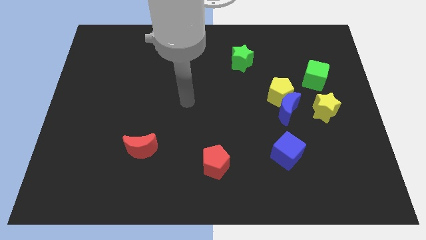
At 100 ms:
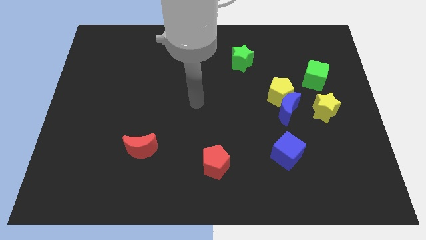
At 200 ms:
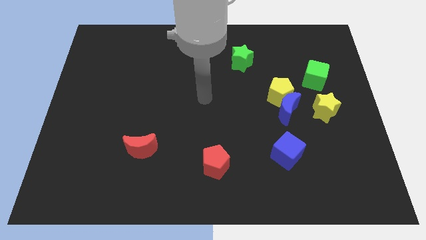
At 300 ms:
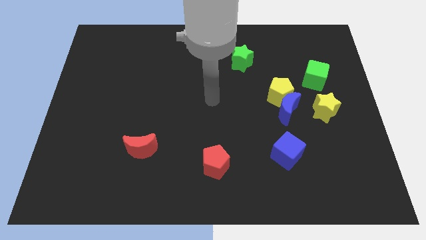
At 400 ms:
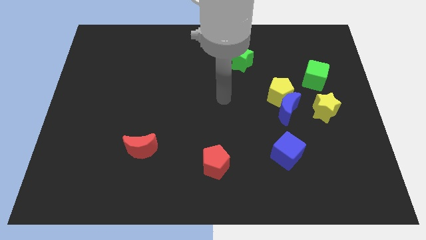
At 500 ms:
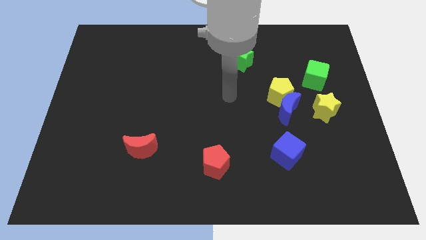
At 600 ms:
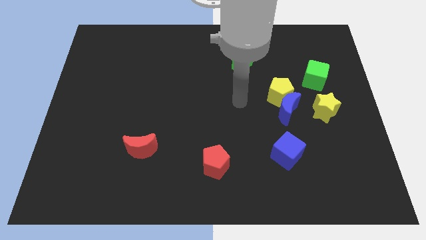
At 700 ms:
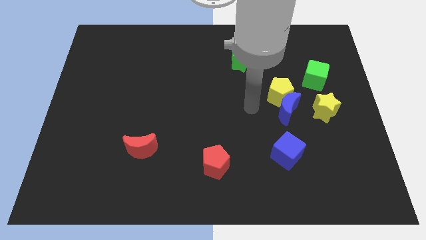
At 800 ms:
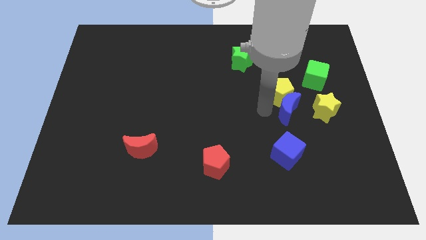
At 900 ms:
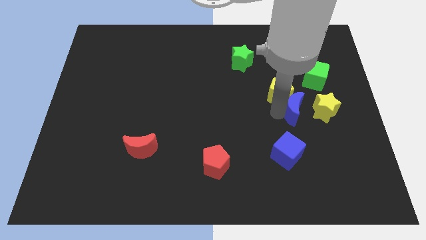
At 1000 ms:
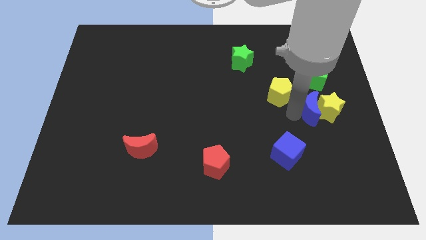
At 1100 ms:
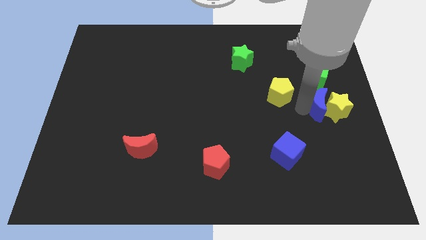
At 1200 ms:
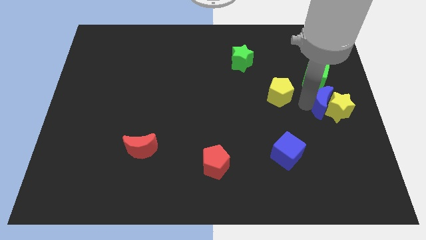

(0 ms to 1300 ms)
separate the yellow pentagon from the blue moon

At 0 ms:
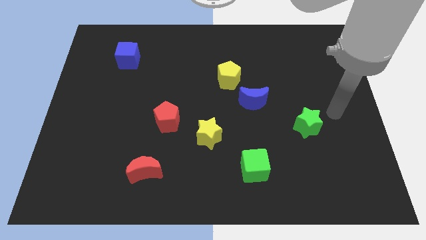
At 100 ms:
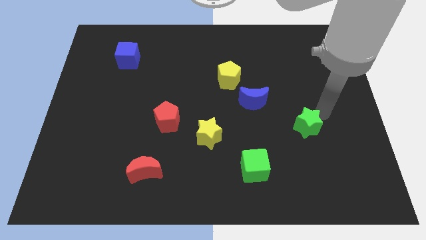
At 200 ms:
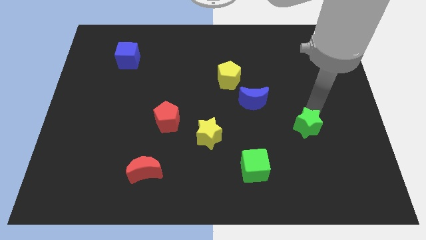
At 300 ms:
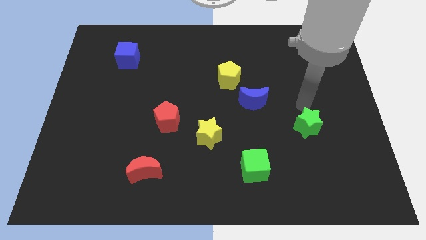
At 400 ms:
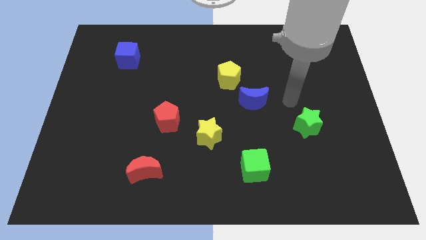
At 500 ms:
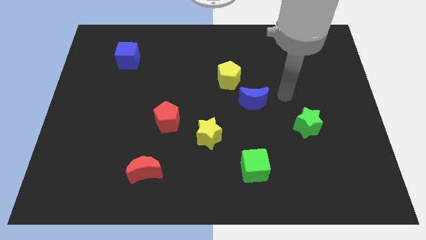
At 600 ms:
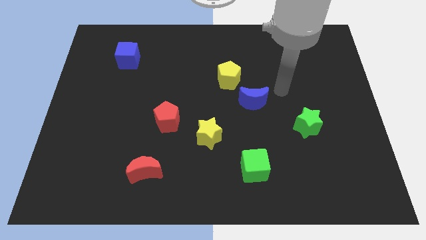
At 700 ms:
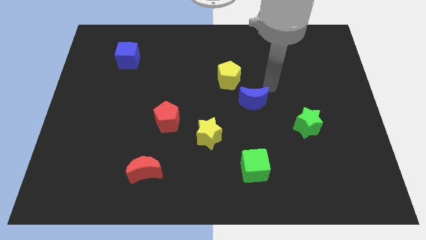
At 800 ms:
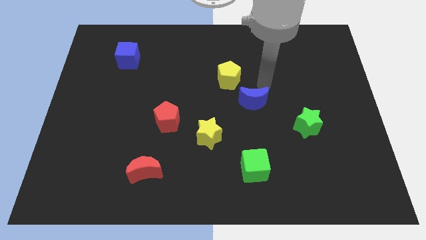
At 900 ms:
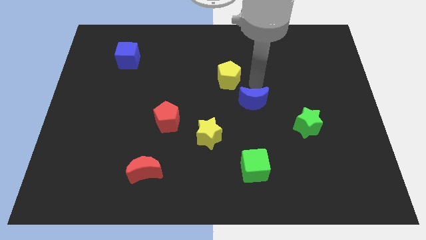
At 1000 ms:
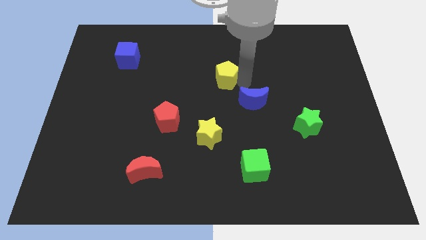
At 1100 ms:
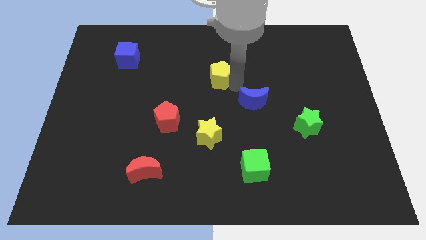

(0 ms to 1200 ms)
pull the blue moon apart from the yellow pentagon

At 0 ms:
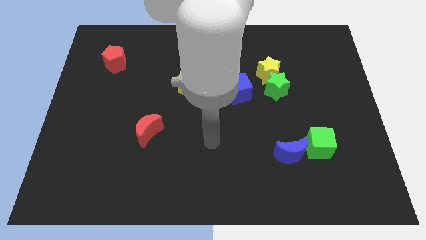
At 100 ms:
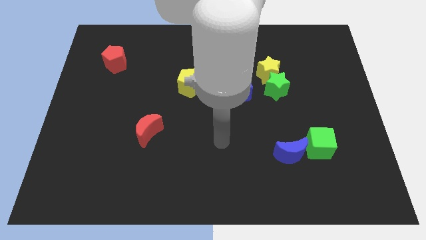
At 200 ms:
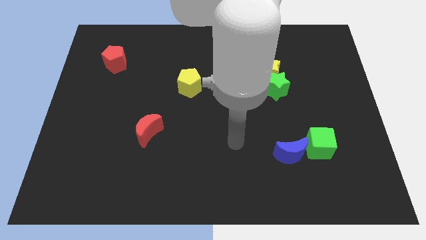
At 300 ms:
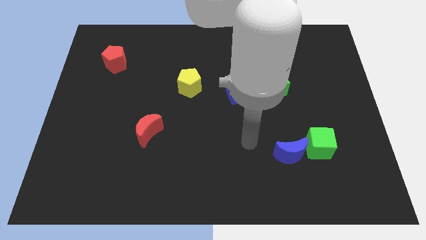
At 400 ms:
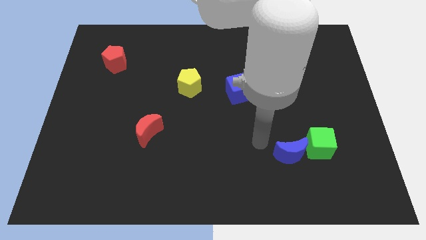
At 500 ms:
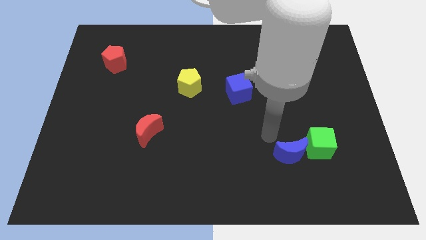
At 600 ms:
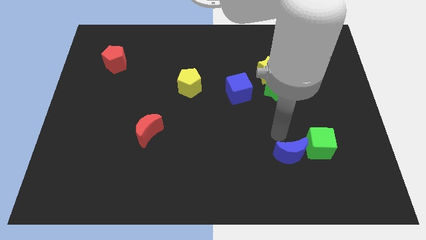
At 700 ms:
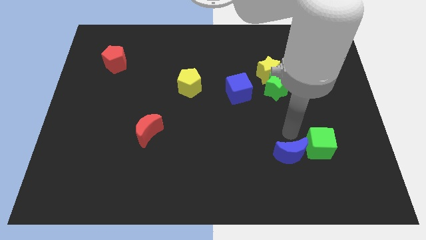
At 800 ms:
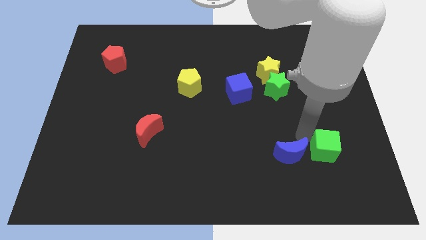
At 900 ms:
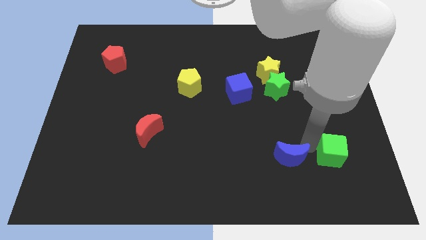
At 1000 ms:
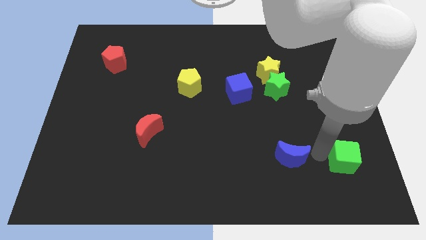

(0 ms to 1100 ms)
pull the blue moon apart from the green cube

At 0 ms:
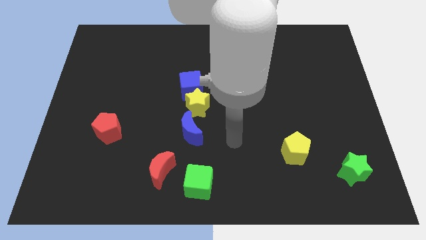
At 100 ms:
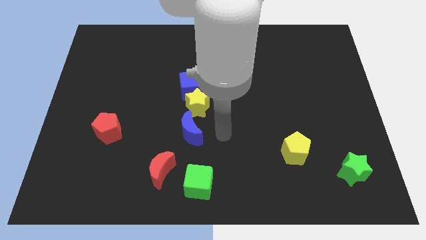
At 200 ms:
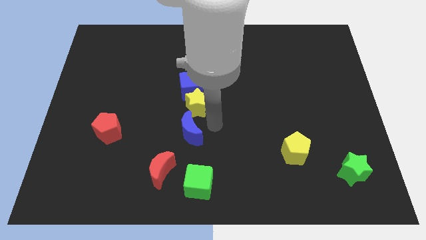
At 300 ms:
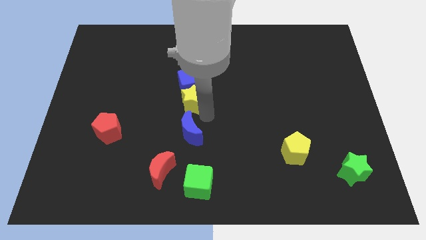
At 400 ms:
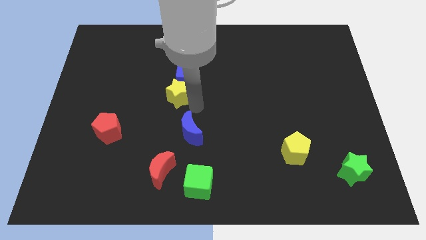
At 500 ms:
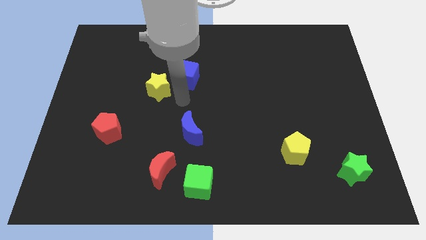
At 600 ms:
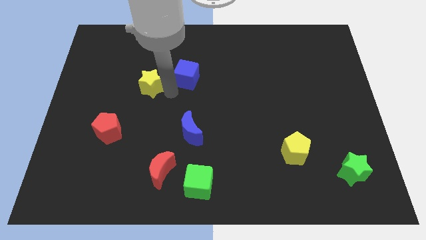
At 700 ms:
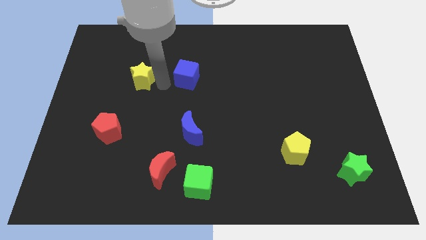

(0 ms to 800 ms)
pull the blue cube apart from the yellow star

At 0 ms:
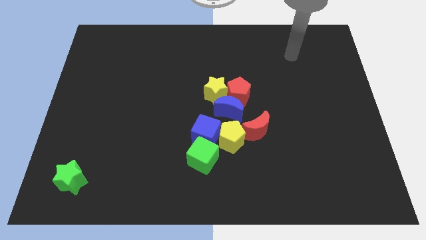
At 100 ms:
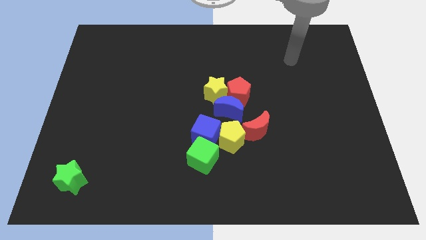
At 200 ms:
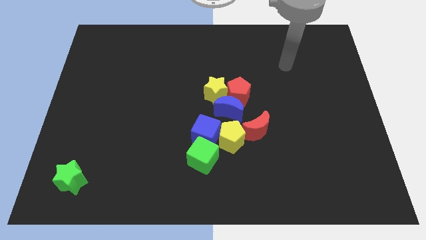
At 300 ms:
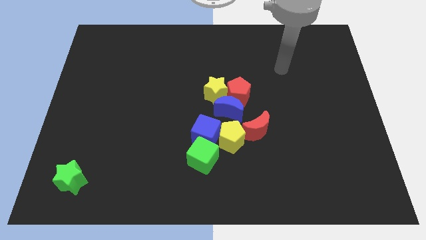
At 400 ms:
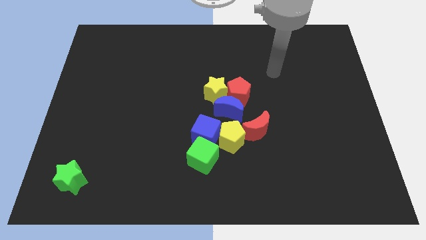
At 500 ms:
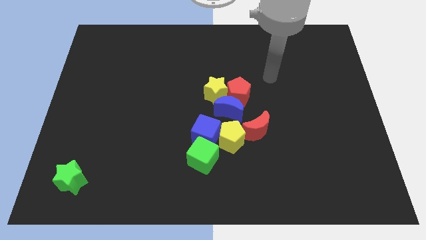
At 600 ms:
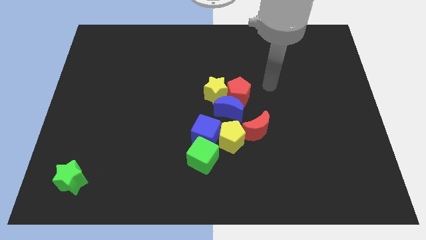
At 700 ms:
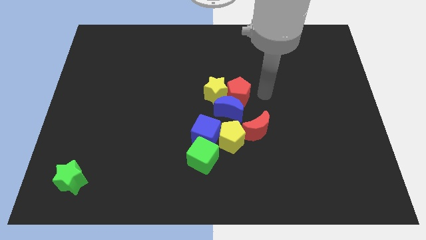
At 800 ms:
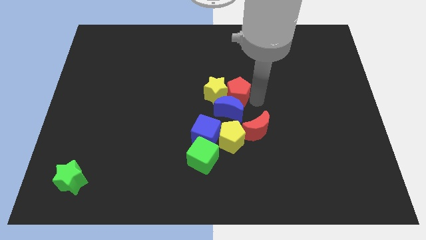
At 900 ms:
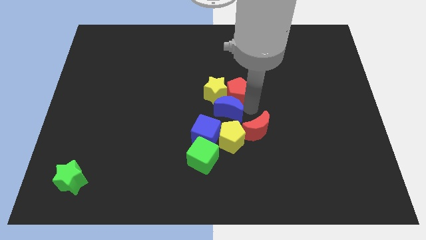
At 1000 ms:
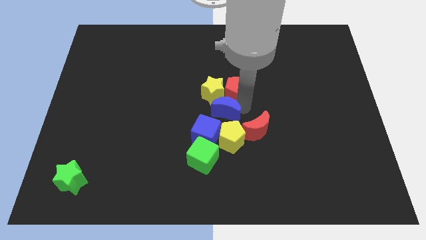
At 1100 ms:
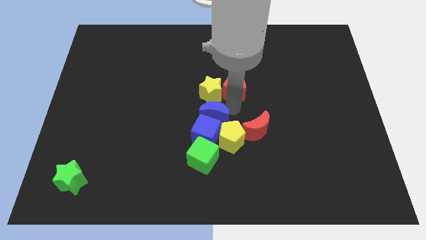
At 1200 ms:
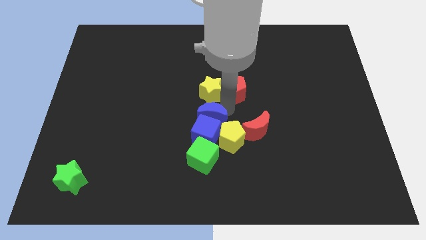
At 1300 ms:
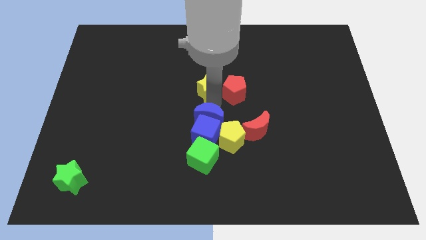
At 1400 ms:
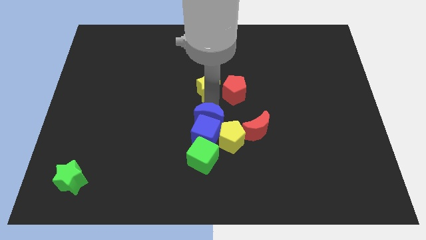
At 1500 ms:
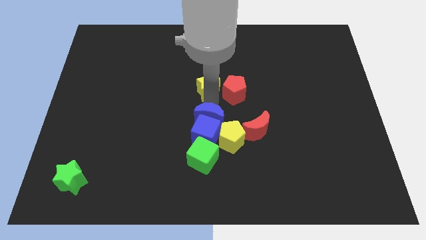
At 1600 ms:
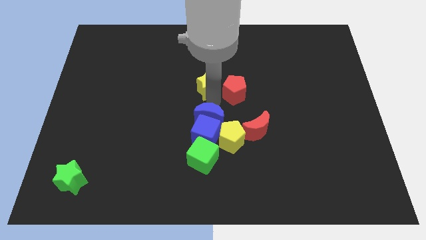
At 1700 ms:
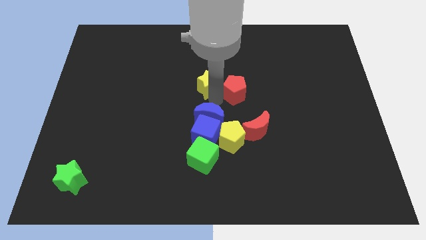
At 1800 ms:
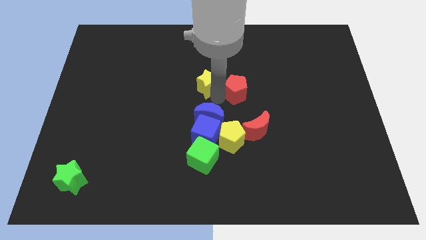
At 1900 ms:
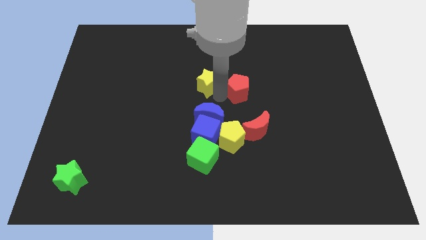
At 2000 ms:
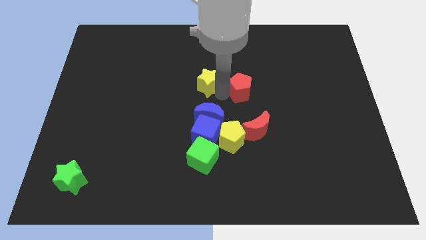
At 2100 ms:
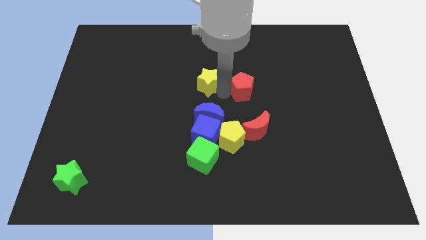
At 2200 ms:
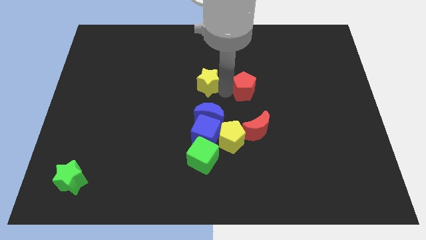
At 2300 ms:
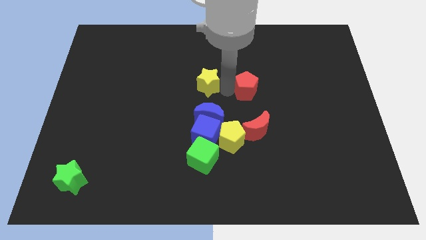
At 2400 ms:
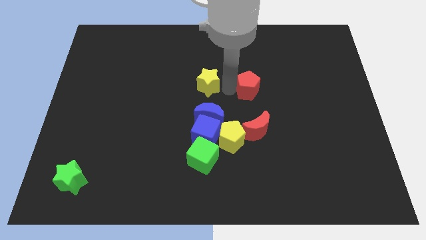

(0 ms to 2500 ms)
separate the red pentagon from the yellow star and blue moon

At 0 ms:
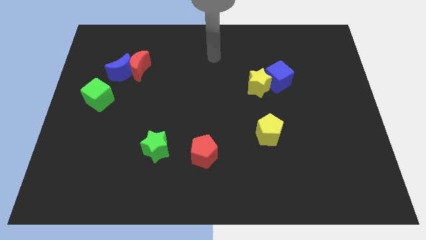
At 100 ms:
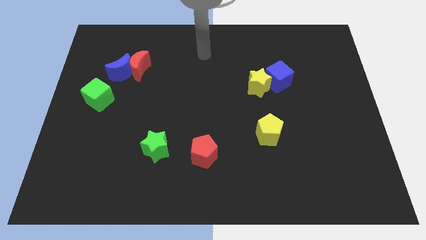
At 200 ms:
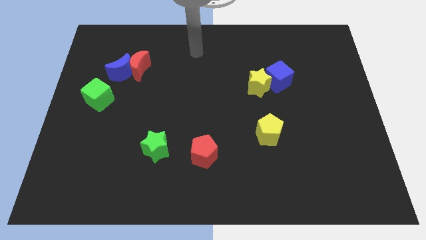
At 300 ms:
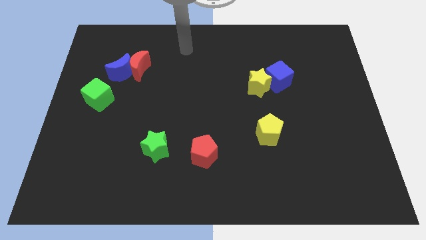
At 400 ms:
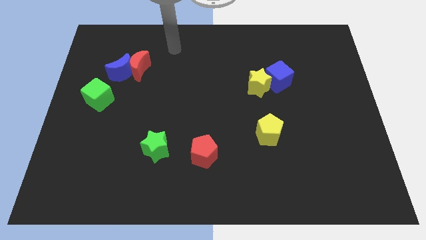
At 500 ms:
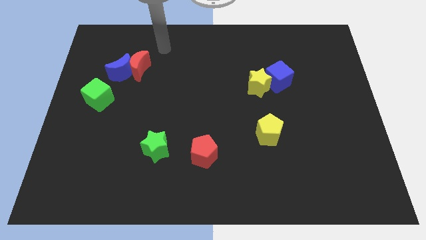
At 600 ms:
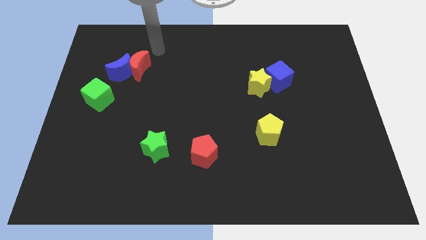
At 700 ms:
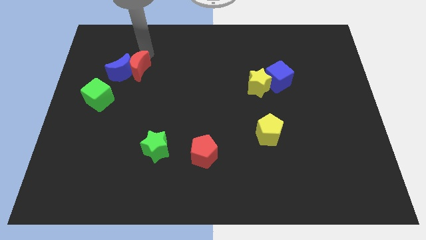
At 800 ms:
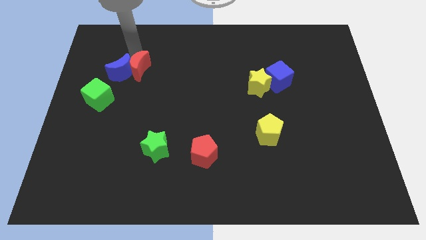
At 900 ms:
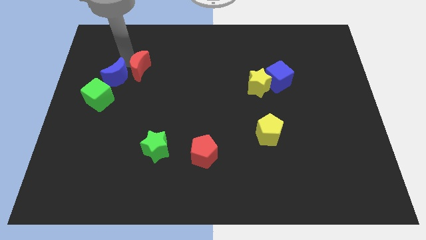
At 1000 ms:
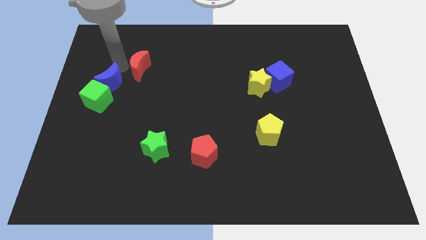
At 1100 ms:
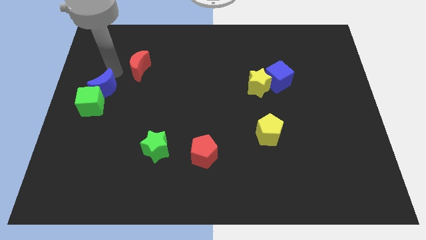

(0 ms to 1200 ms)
move the red moon away from the blue moon

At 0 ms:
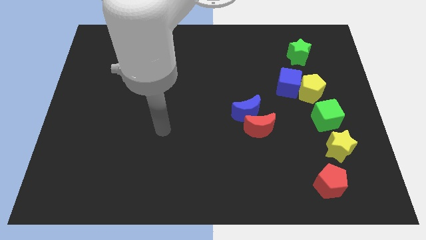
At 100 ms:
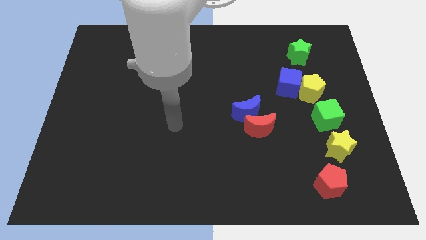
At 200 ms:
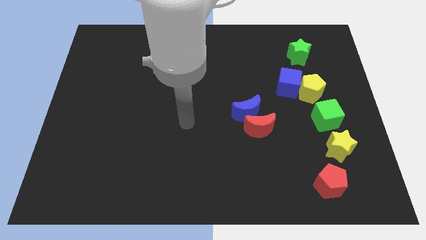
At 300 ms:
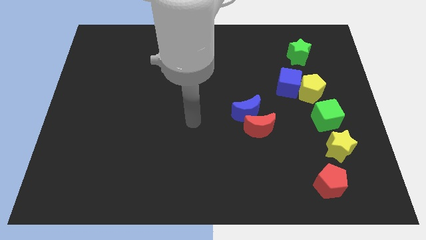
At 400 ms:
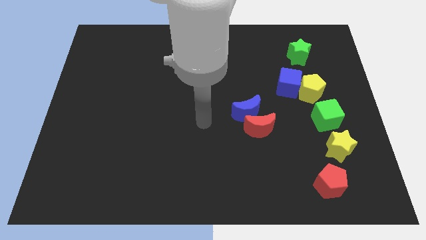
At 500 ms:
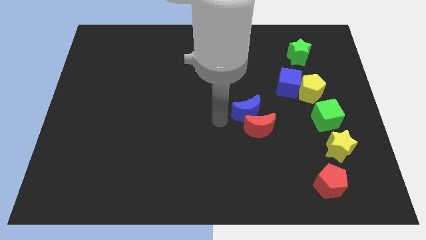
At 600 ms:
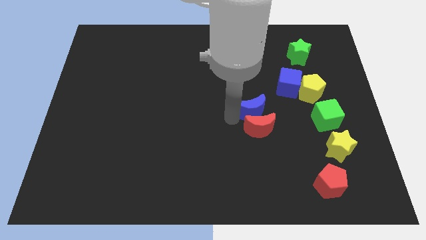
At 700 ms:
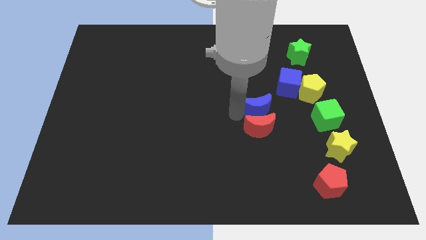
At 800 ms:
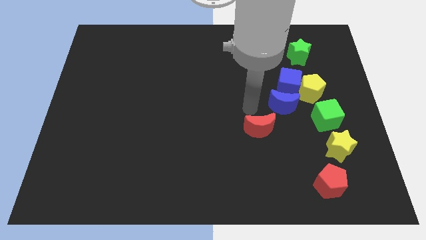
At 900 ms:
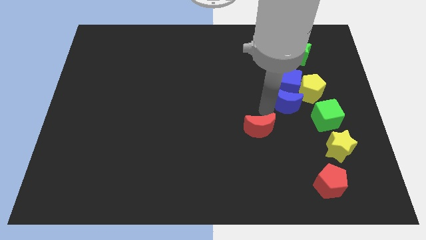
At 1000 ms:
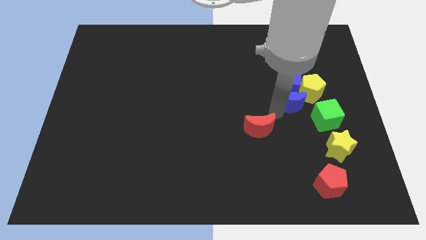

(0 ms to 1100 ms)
separate the red moon from the blue moon

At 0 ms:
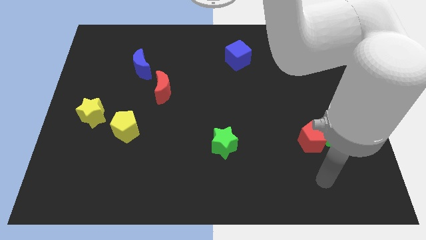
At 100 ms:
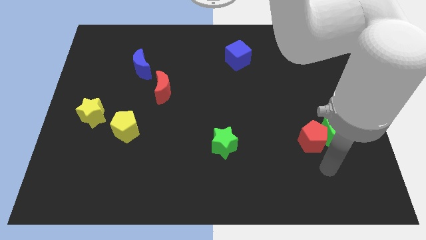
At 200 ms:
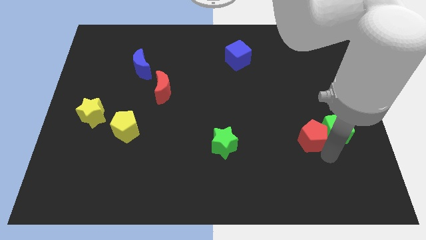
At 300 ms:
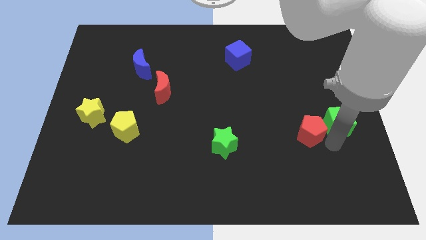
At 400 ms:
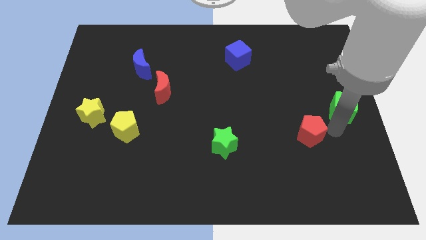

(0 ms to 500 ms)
move the red pentagon away from the green cube
